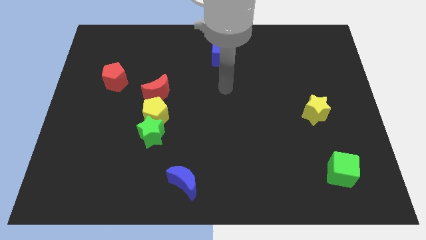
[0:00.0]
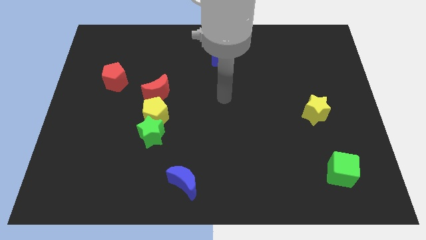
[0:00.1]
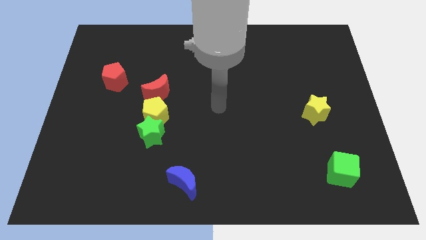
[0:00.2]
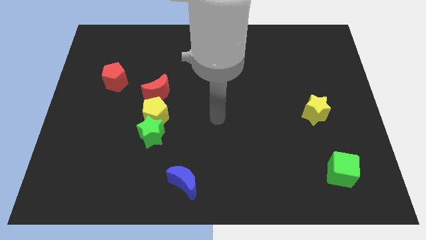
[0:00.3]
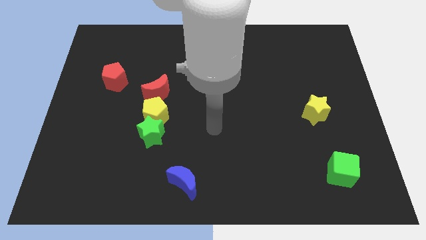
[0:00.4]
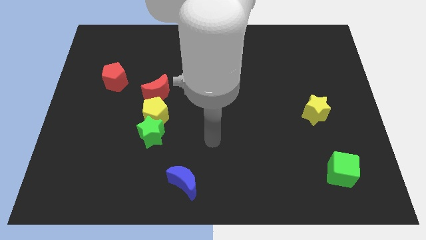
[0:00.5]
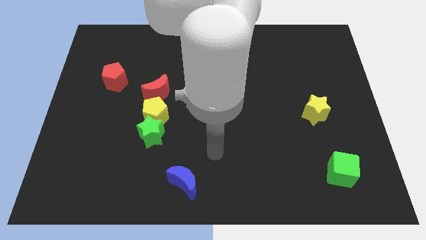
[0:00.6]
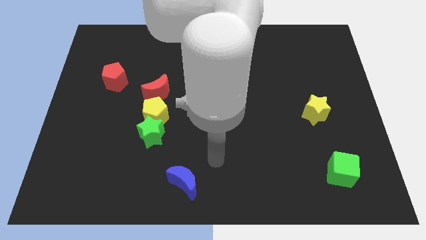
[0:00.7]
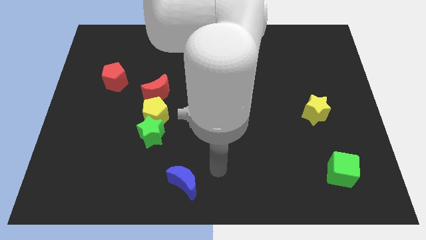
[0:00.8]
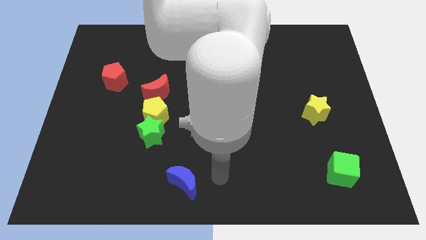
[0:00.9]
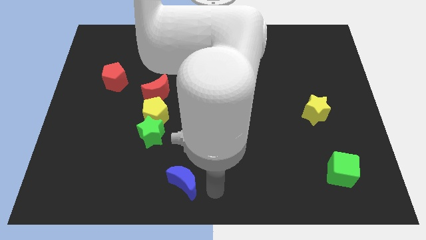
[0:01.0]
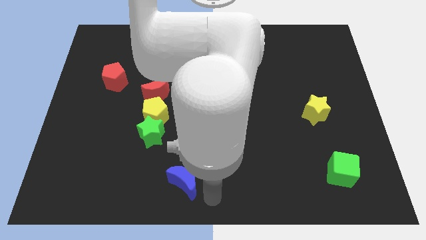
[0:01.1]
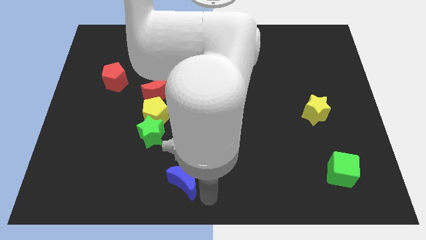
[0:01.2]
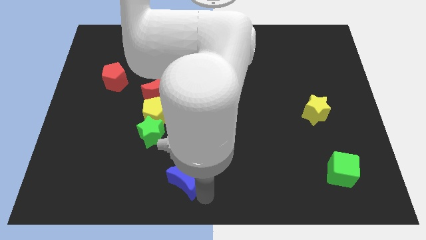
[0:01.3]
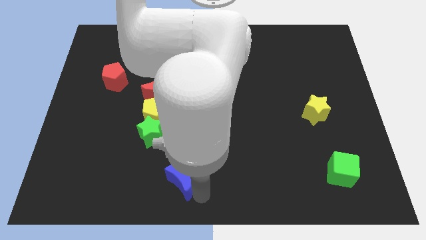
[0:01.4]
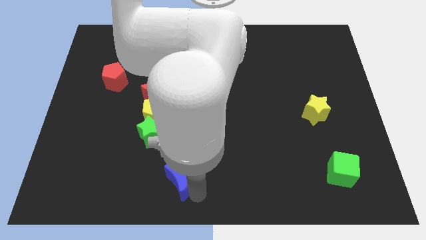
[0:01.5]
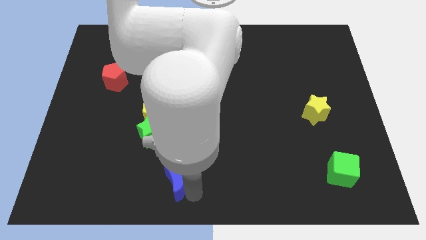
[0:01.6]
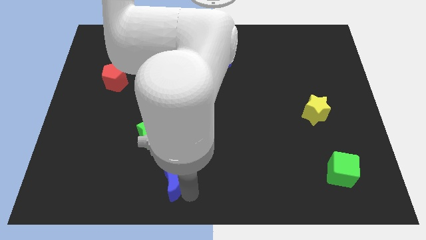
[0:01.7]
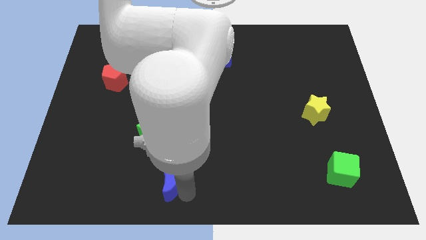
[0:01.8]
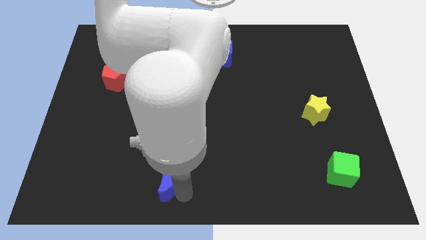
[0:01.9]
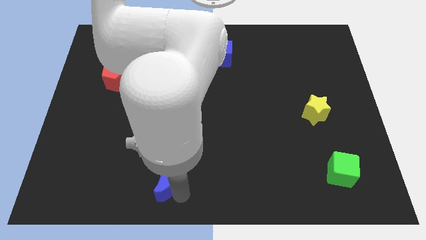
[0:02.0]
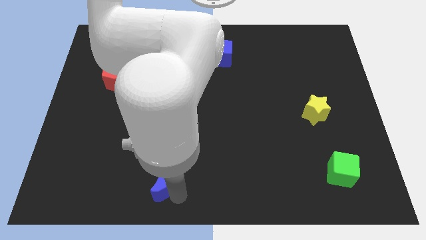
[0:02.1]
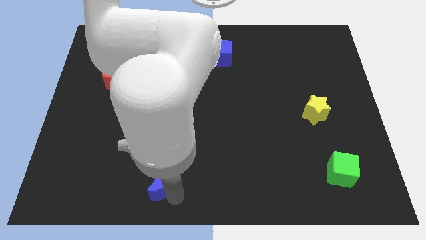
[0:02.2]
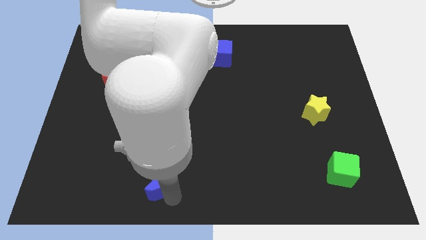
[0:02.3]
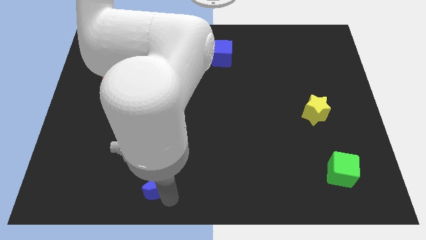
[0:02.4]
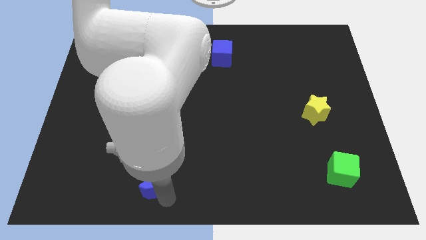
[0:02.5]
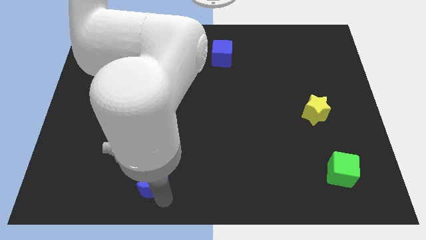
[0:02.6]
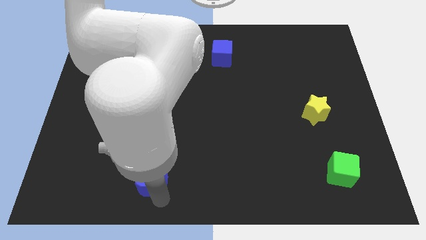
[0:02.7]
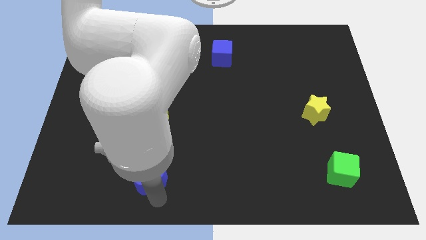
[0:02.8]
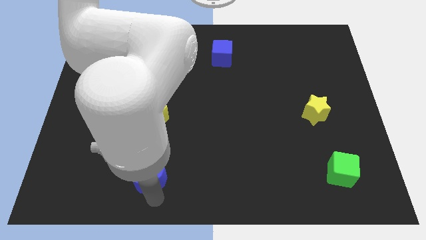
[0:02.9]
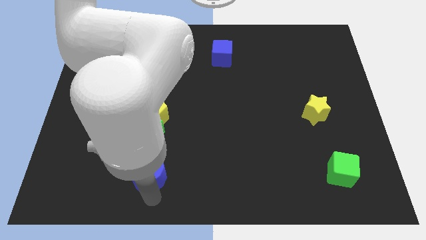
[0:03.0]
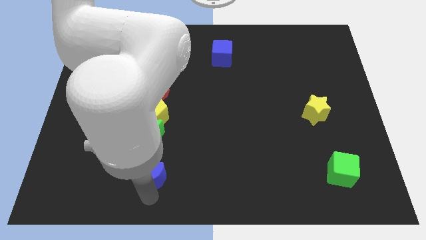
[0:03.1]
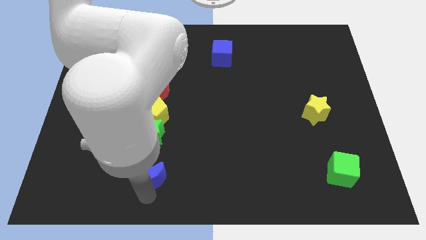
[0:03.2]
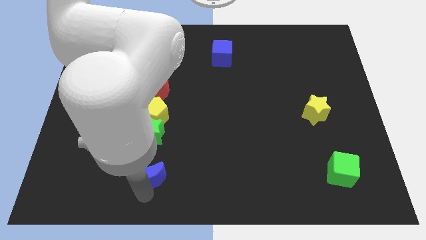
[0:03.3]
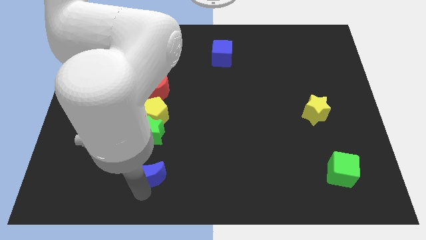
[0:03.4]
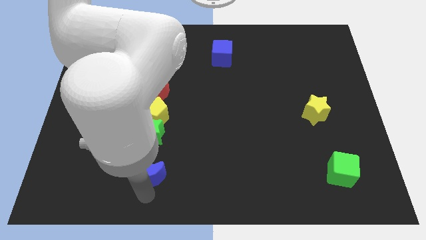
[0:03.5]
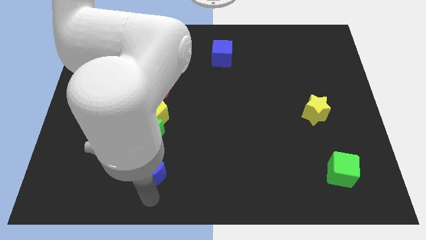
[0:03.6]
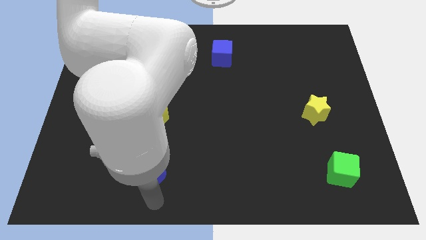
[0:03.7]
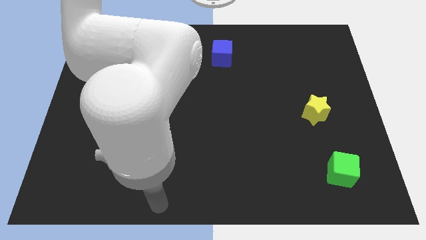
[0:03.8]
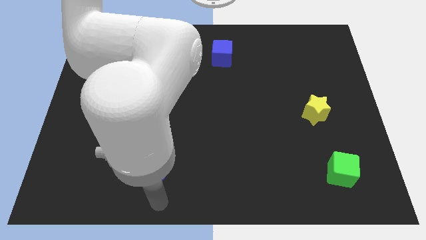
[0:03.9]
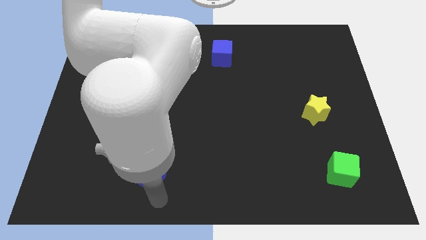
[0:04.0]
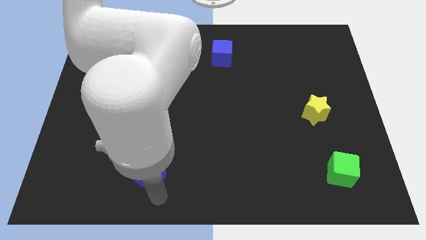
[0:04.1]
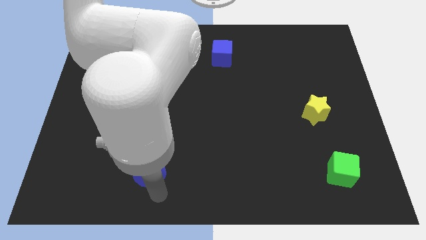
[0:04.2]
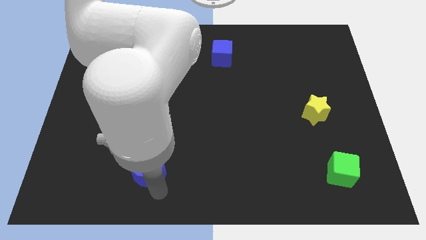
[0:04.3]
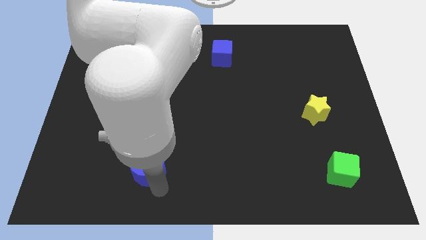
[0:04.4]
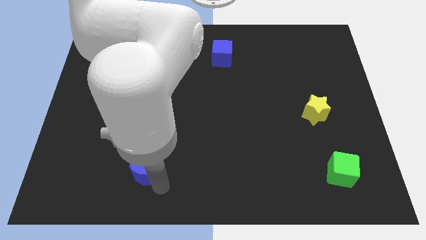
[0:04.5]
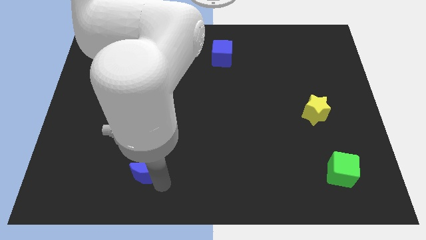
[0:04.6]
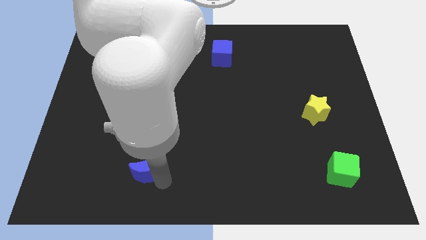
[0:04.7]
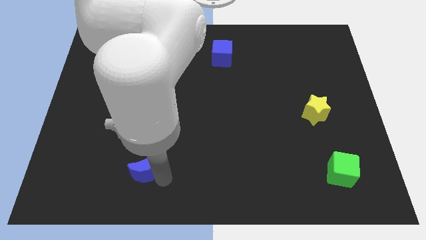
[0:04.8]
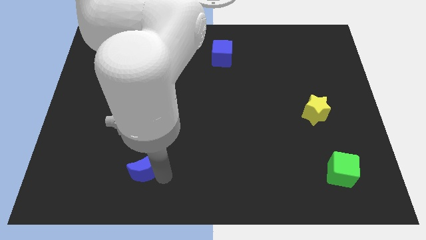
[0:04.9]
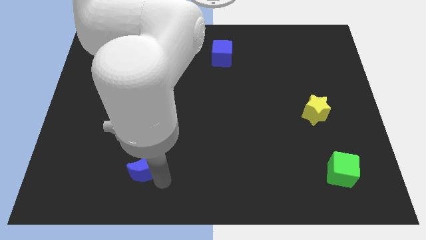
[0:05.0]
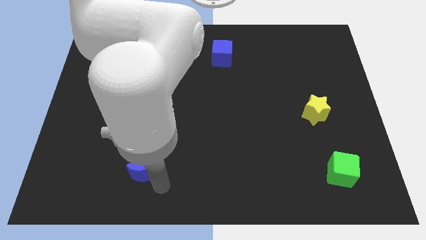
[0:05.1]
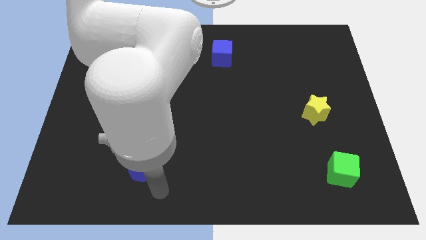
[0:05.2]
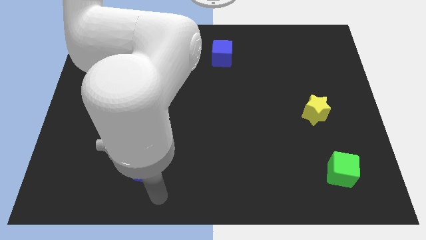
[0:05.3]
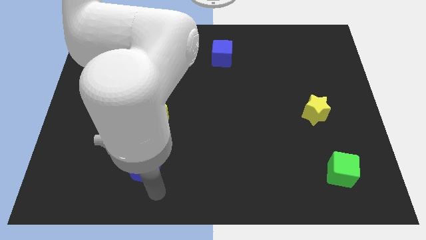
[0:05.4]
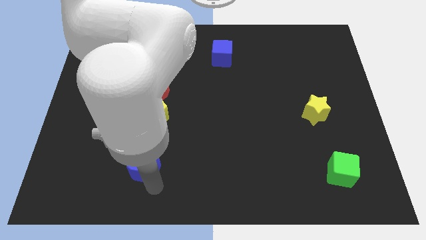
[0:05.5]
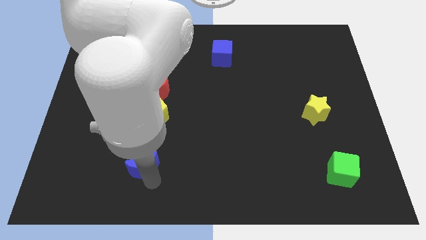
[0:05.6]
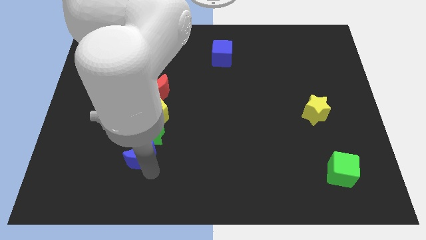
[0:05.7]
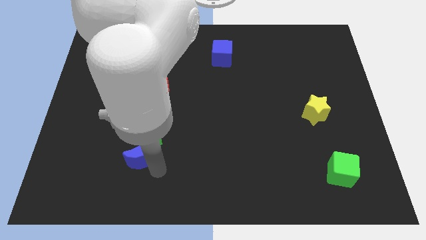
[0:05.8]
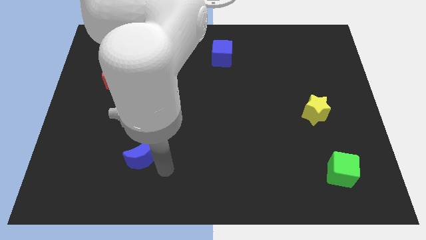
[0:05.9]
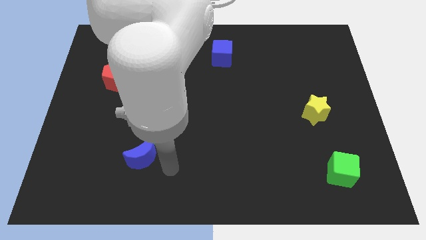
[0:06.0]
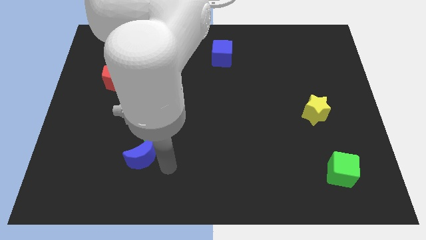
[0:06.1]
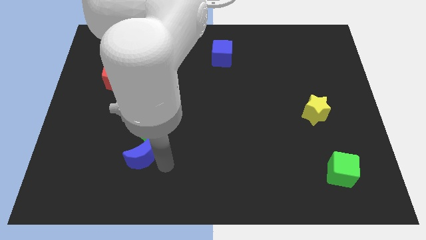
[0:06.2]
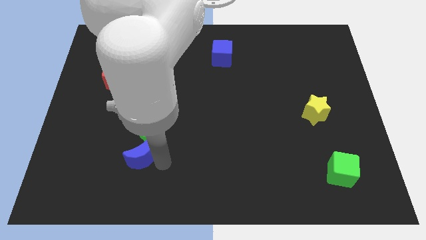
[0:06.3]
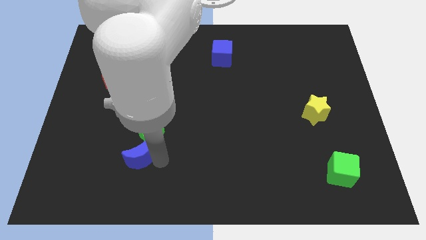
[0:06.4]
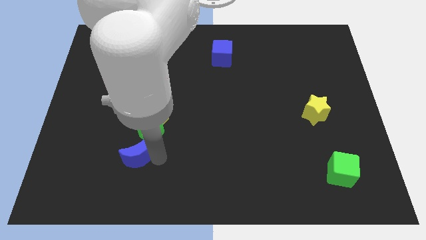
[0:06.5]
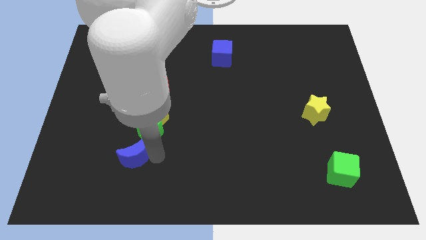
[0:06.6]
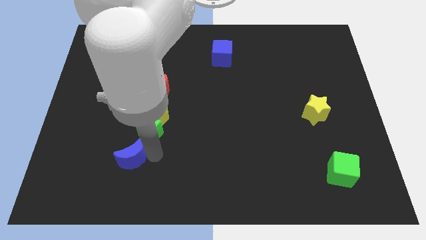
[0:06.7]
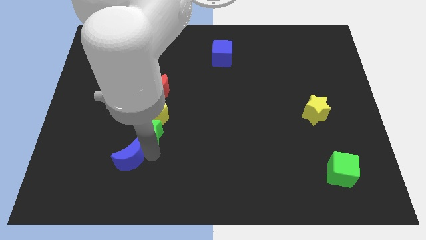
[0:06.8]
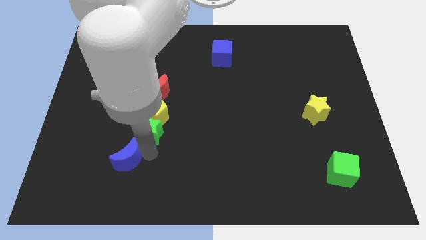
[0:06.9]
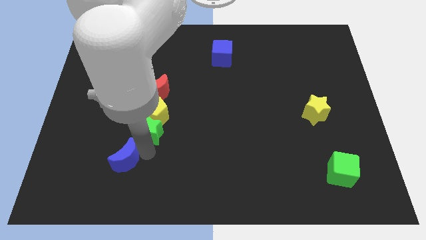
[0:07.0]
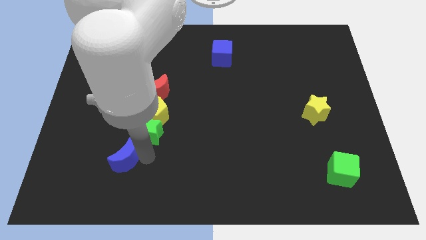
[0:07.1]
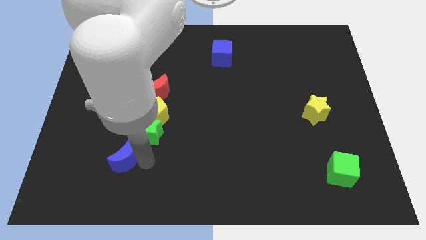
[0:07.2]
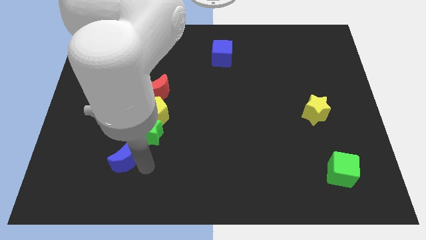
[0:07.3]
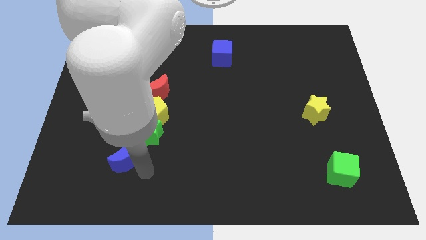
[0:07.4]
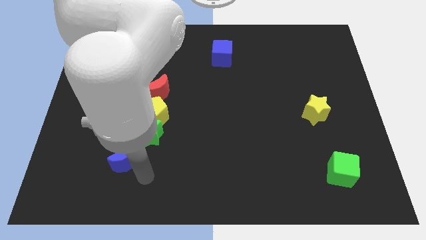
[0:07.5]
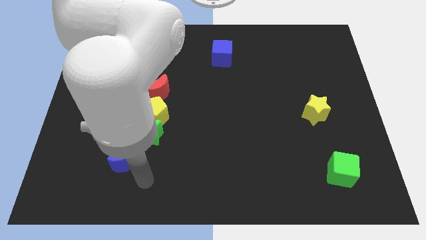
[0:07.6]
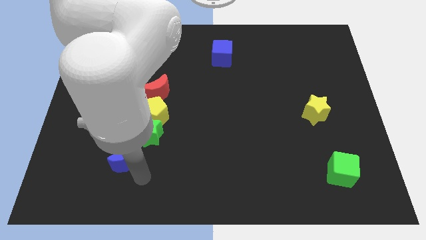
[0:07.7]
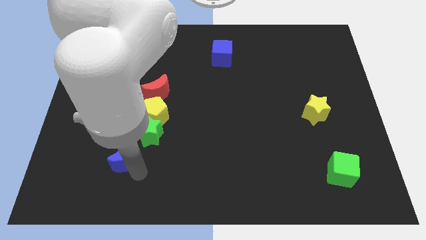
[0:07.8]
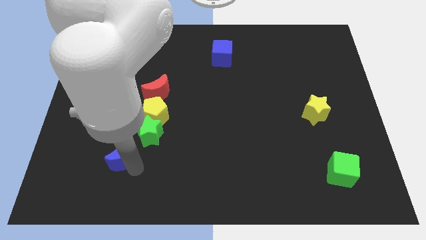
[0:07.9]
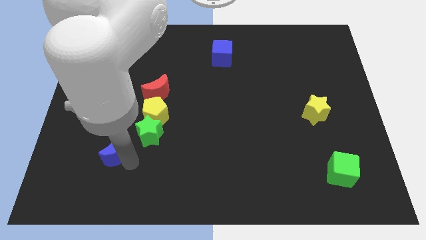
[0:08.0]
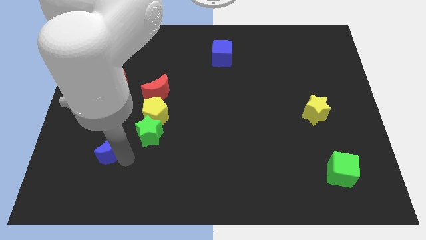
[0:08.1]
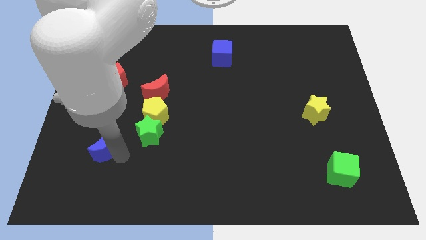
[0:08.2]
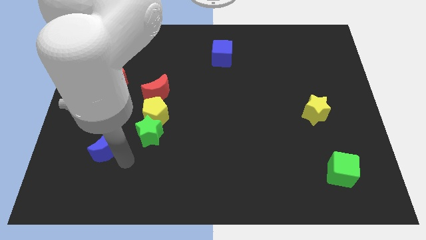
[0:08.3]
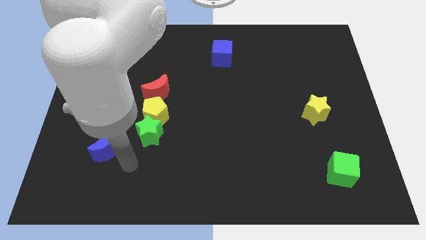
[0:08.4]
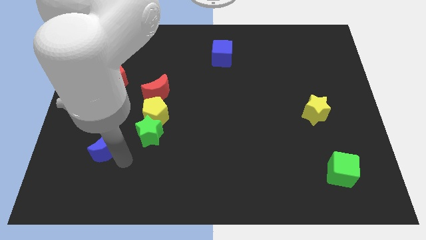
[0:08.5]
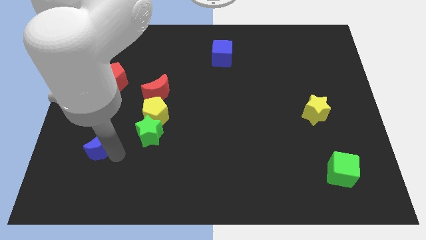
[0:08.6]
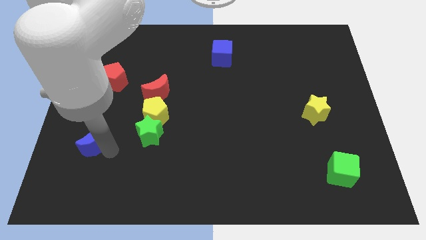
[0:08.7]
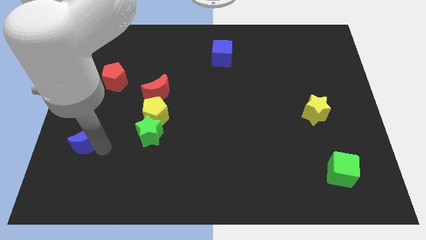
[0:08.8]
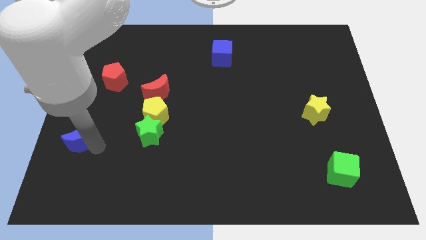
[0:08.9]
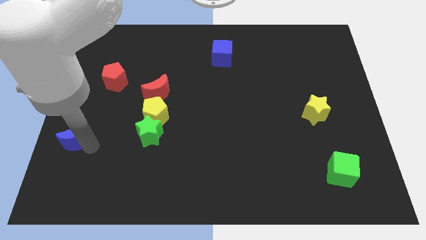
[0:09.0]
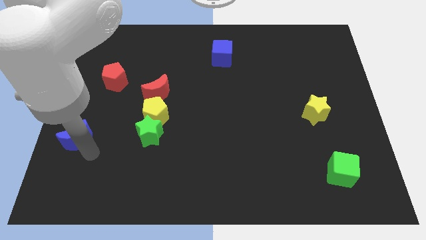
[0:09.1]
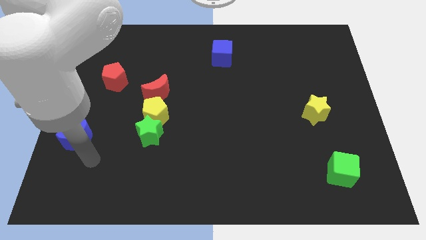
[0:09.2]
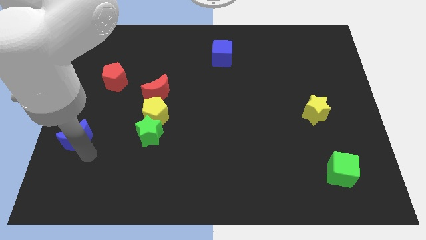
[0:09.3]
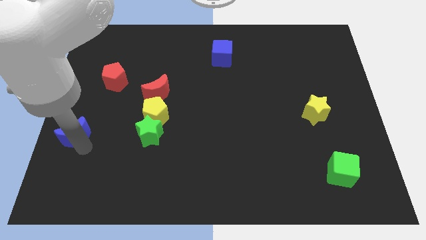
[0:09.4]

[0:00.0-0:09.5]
push the blue moon to the left side
